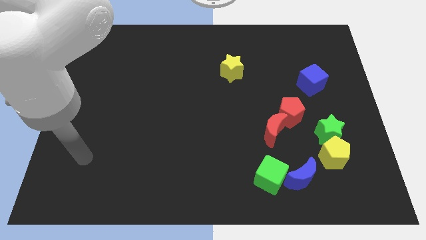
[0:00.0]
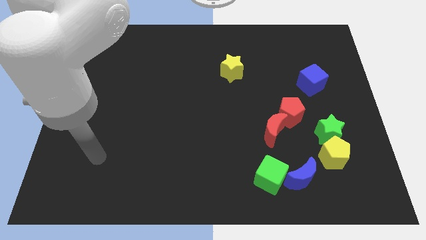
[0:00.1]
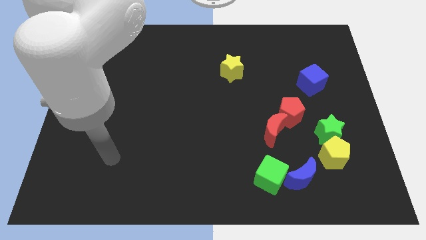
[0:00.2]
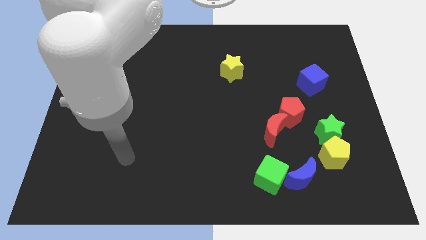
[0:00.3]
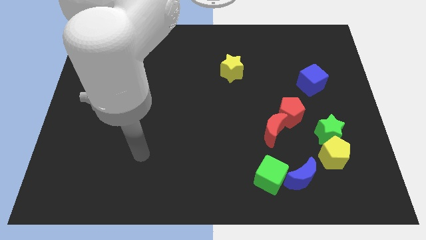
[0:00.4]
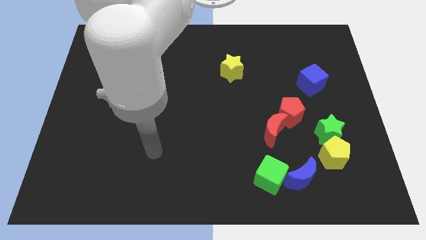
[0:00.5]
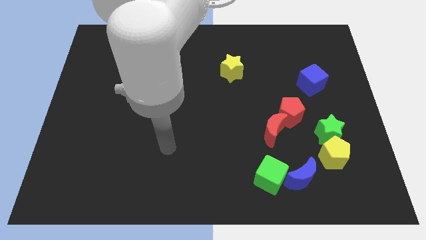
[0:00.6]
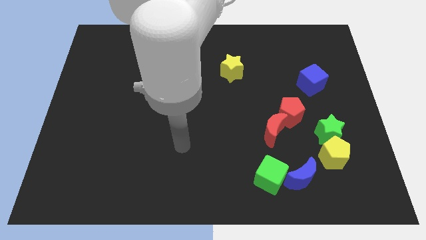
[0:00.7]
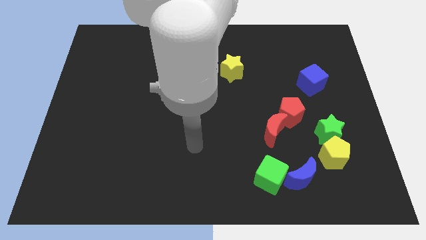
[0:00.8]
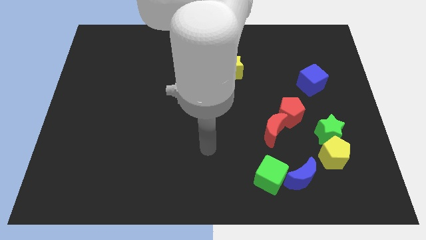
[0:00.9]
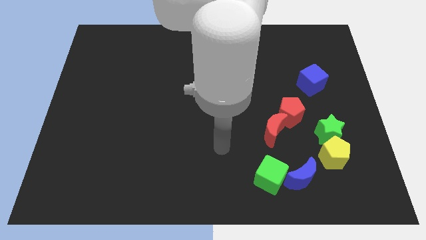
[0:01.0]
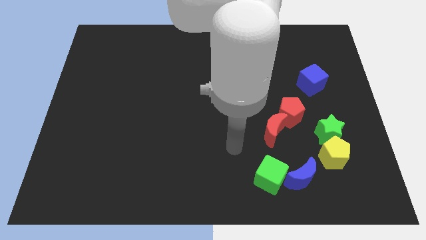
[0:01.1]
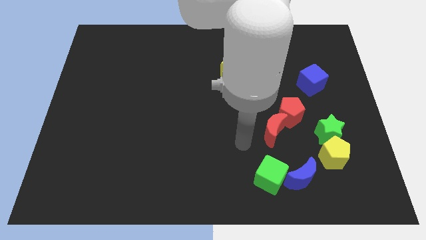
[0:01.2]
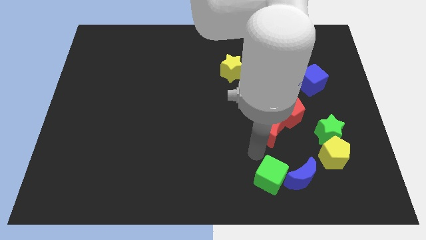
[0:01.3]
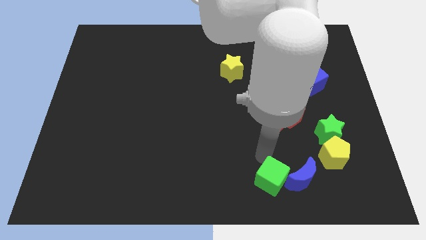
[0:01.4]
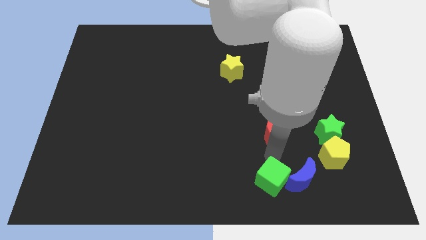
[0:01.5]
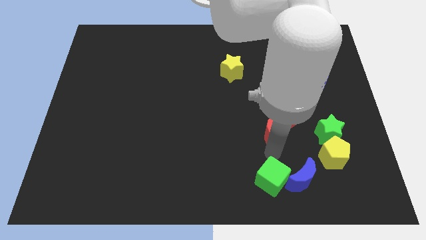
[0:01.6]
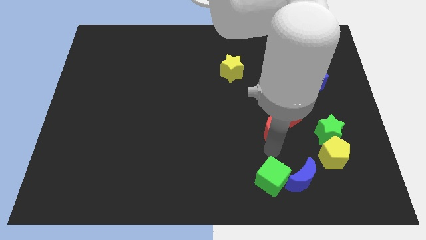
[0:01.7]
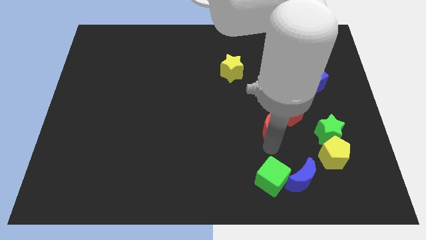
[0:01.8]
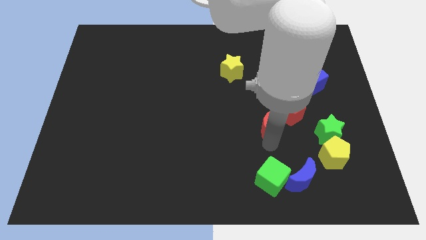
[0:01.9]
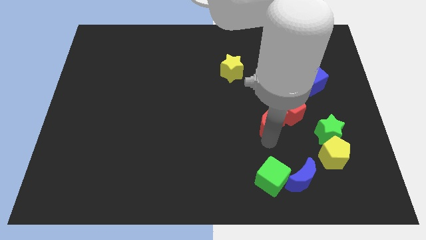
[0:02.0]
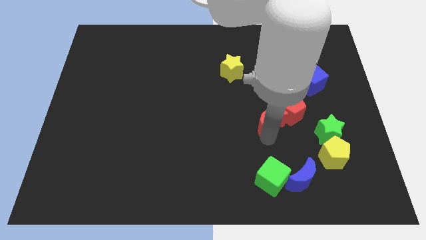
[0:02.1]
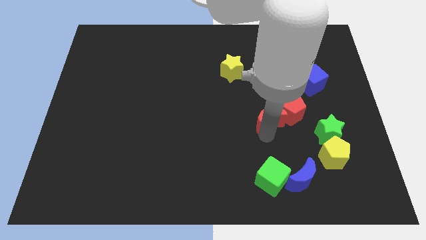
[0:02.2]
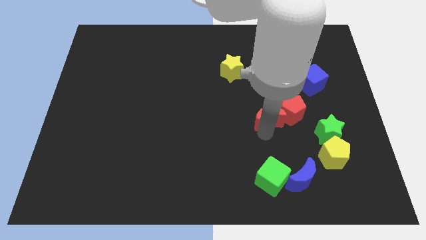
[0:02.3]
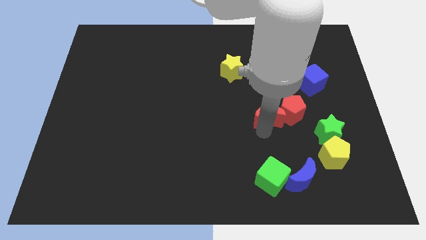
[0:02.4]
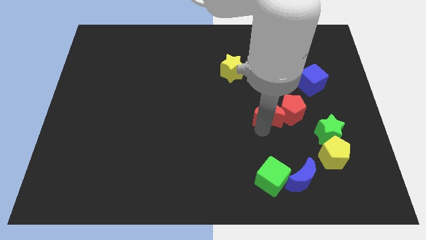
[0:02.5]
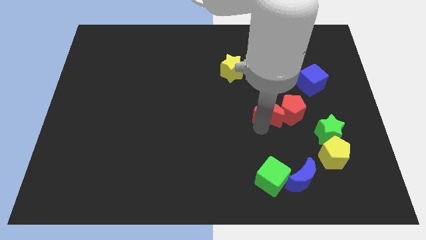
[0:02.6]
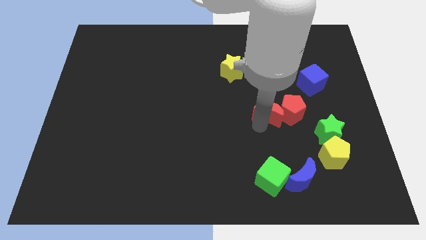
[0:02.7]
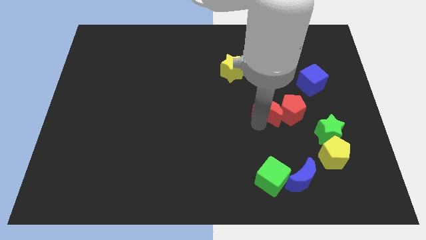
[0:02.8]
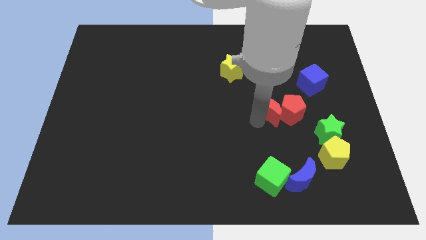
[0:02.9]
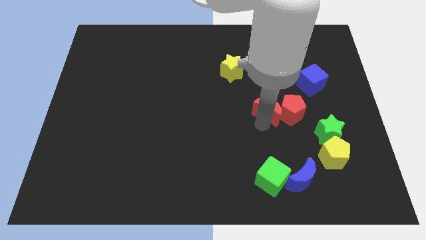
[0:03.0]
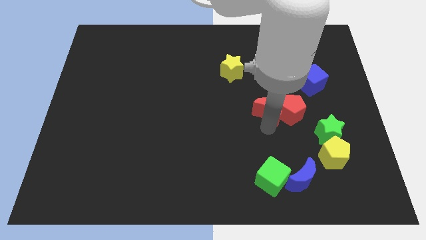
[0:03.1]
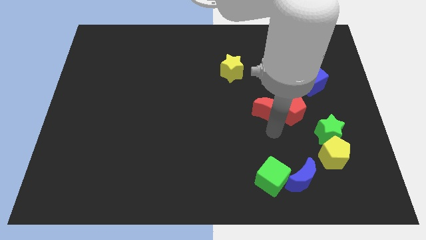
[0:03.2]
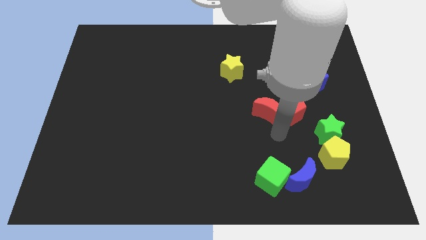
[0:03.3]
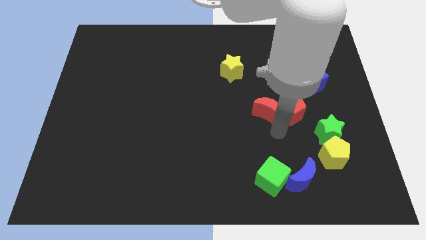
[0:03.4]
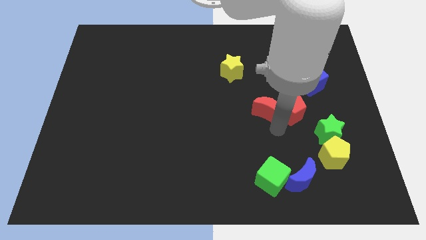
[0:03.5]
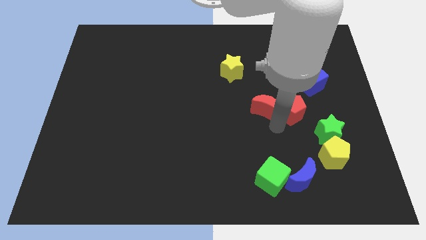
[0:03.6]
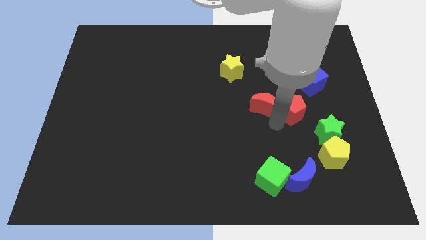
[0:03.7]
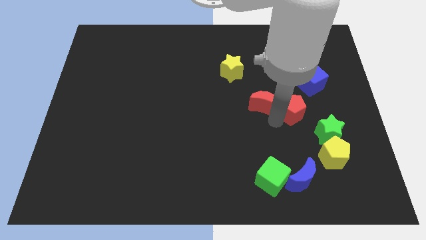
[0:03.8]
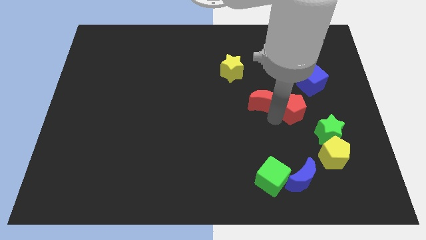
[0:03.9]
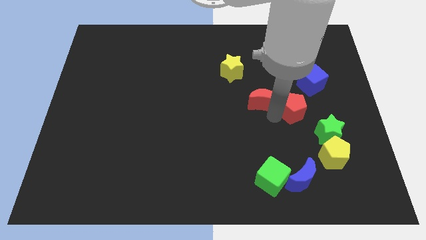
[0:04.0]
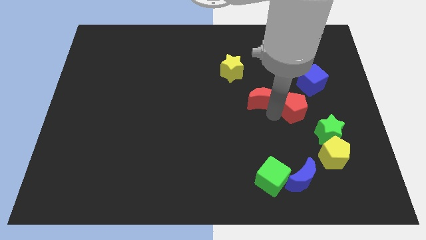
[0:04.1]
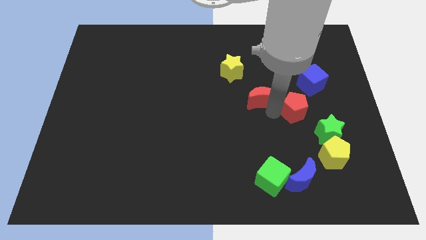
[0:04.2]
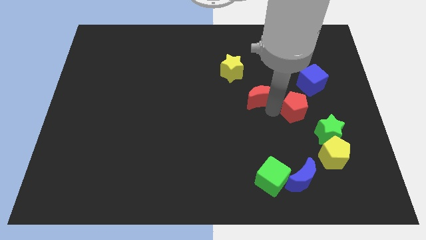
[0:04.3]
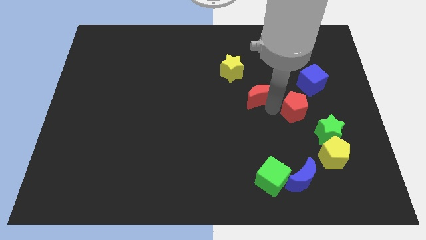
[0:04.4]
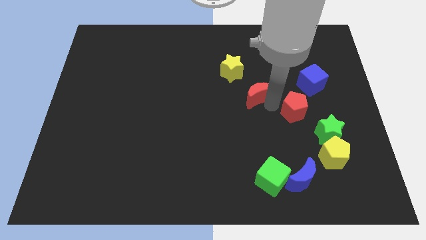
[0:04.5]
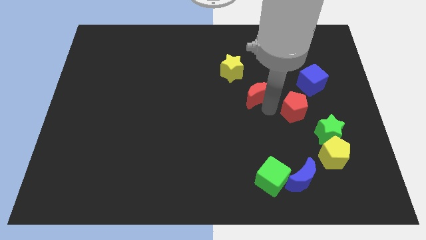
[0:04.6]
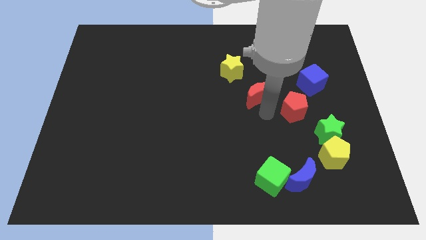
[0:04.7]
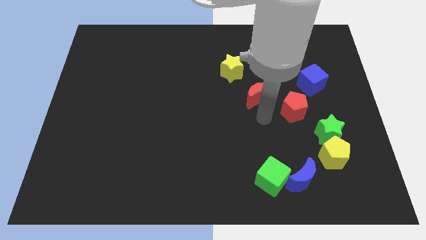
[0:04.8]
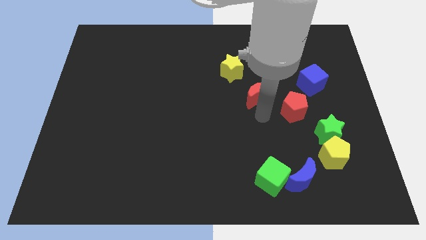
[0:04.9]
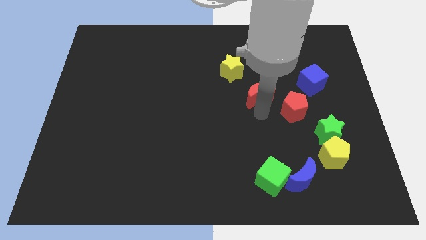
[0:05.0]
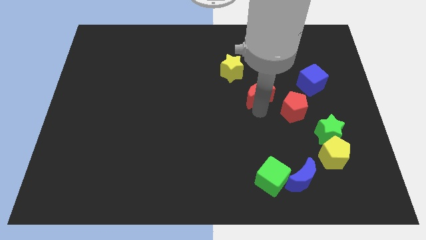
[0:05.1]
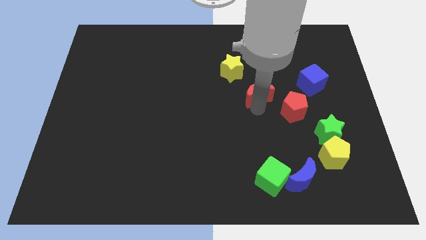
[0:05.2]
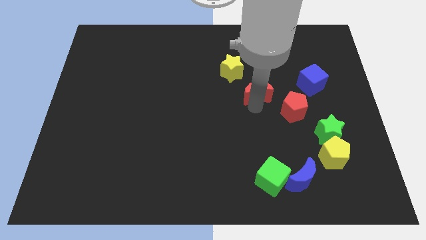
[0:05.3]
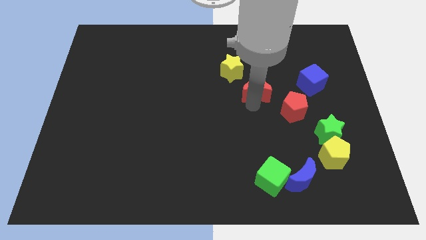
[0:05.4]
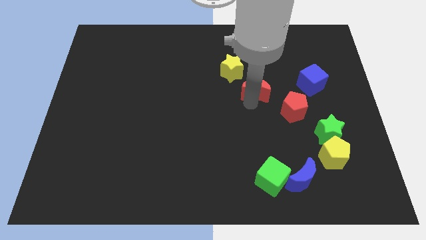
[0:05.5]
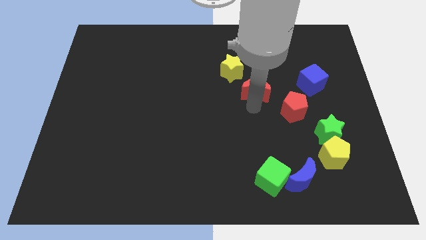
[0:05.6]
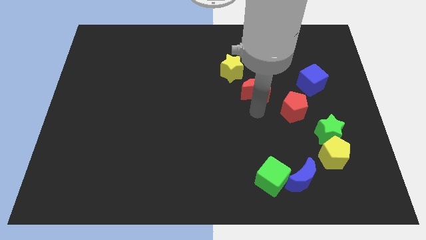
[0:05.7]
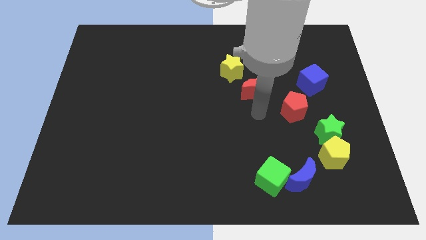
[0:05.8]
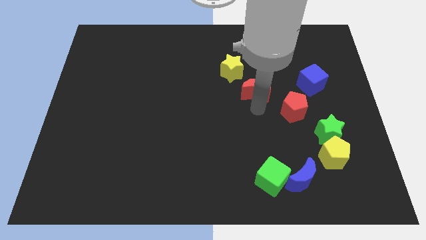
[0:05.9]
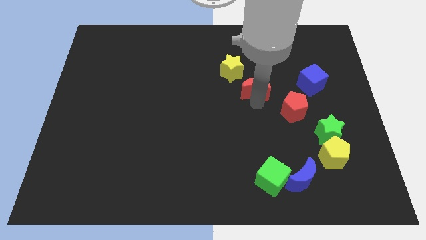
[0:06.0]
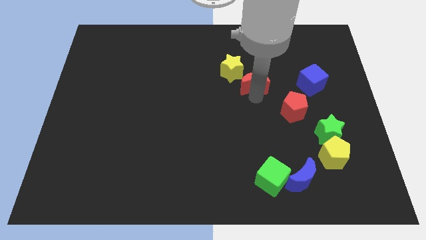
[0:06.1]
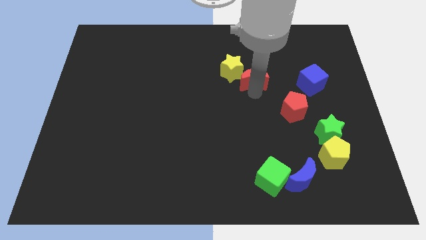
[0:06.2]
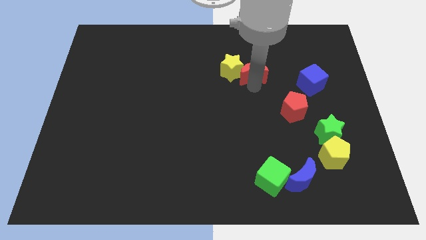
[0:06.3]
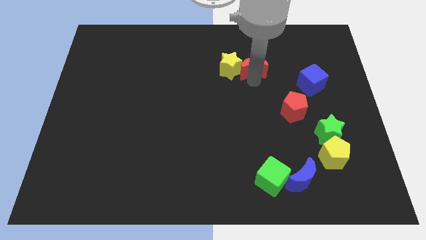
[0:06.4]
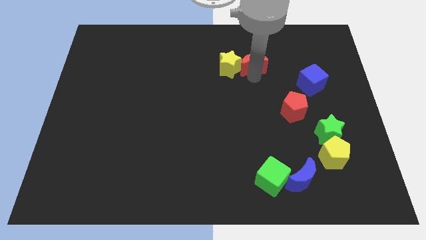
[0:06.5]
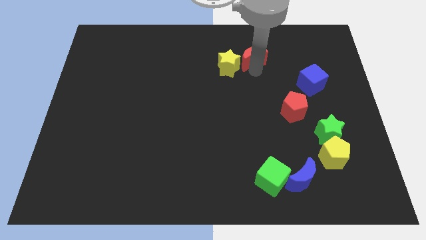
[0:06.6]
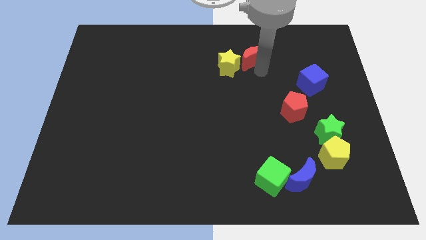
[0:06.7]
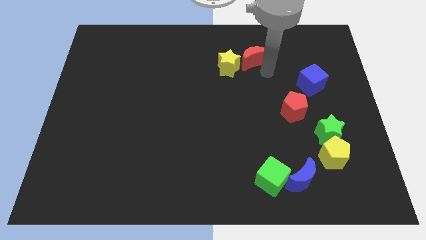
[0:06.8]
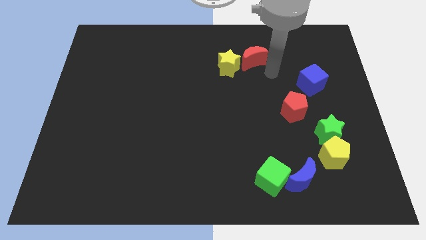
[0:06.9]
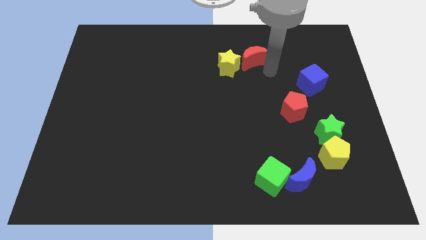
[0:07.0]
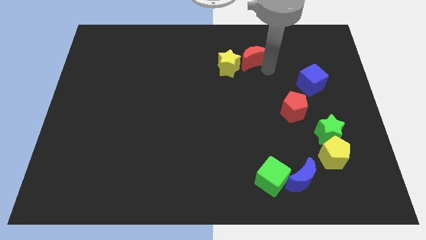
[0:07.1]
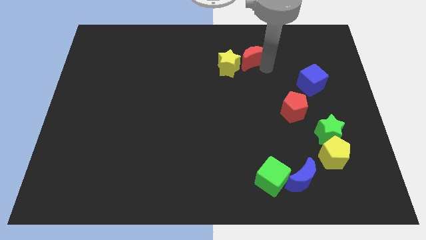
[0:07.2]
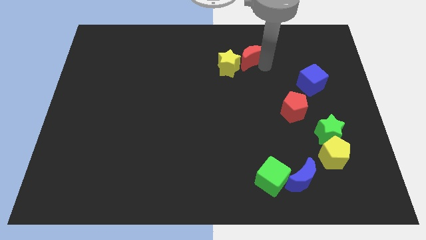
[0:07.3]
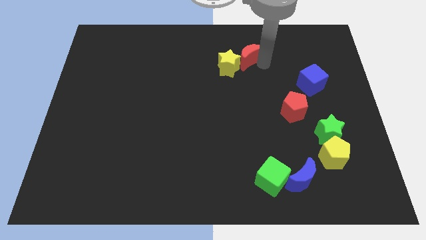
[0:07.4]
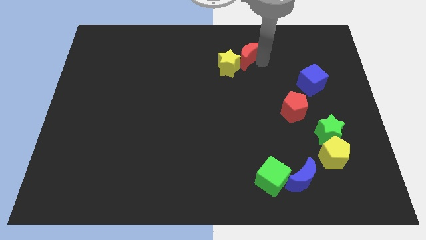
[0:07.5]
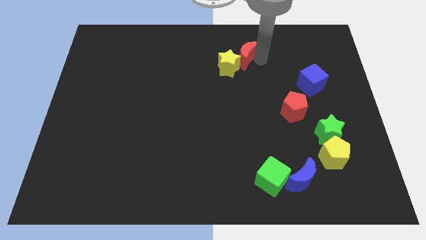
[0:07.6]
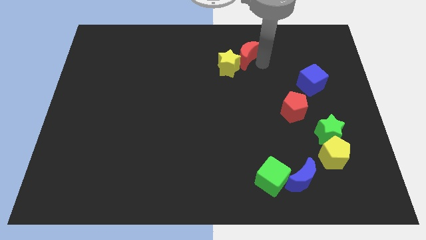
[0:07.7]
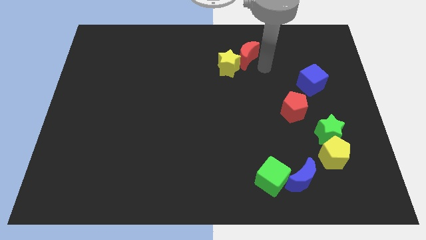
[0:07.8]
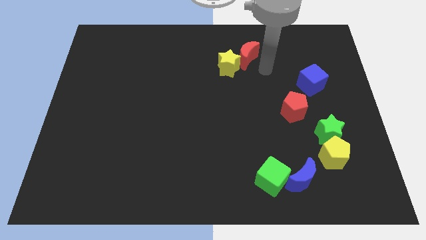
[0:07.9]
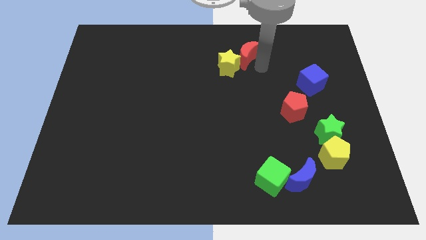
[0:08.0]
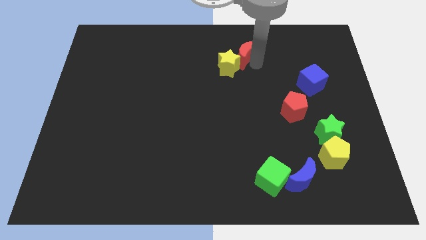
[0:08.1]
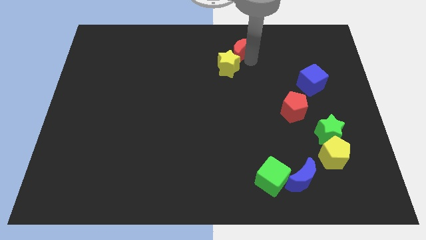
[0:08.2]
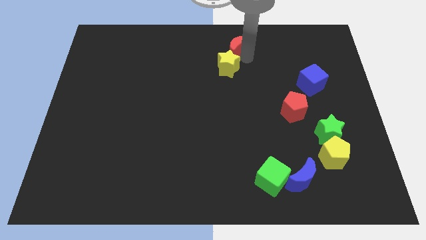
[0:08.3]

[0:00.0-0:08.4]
put the red moon to the towards your base
